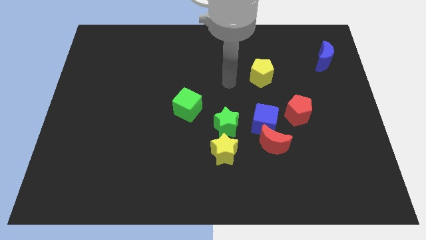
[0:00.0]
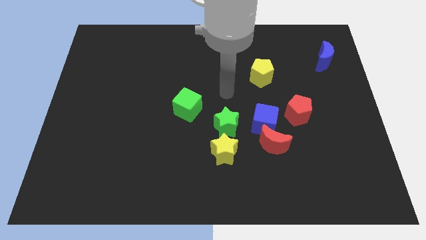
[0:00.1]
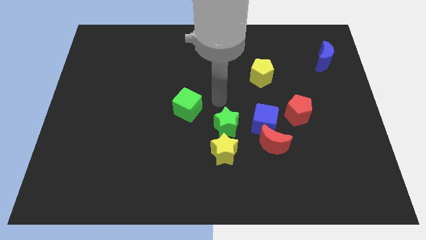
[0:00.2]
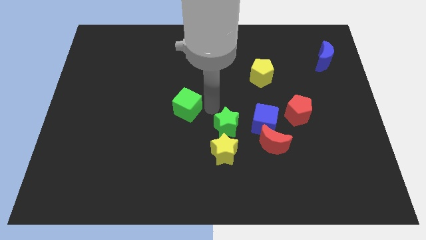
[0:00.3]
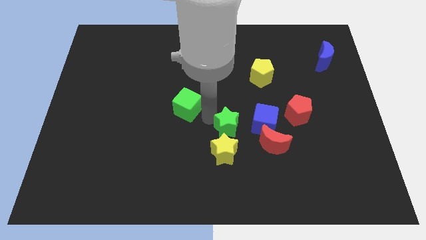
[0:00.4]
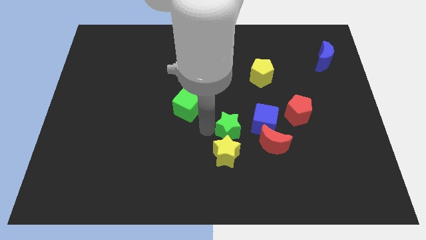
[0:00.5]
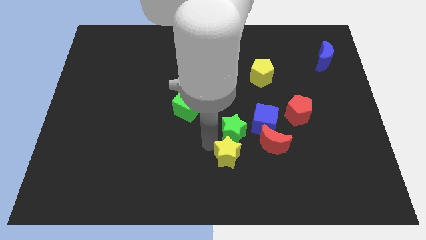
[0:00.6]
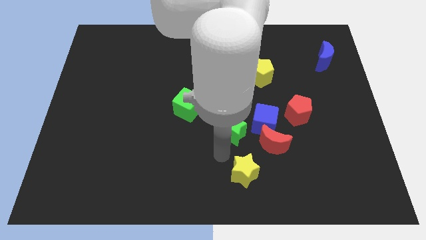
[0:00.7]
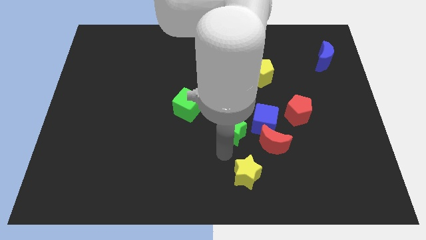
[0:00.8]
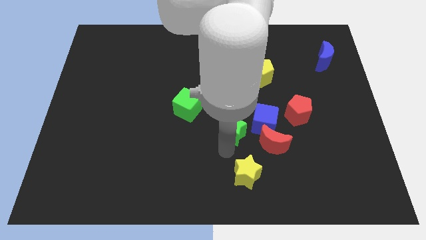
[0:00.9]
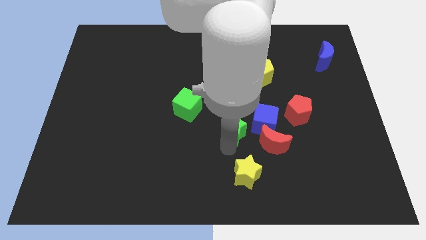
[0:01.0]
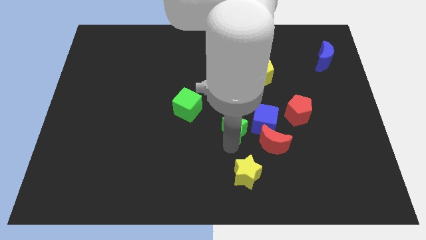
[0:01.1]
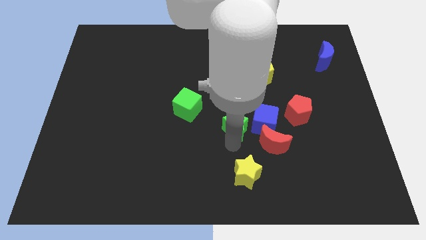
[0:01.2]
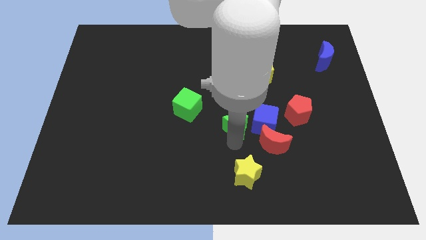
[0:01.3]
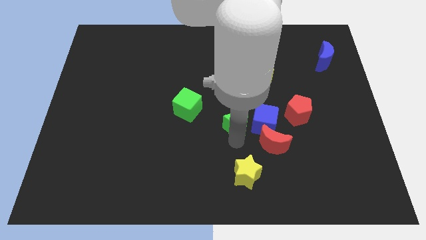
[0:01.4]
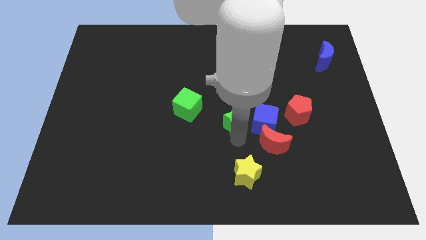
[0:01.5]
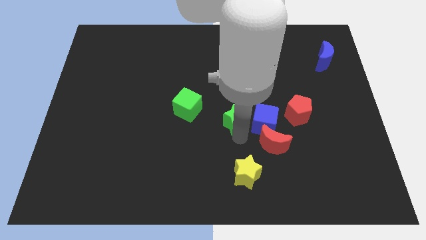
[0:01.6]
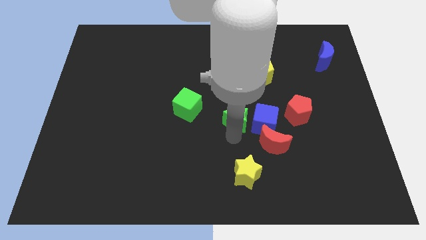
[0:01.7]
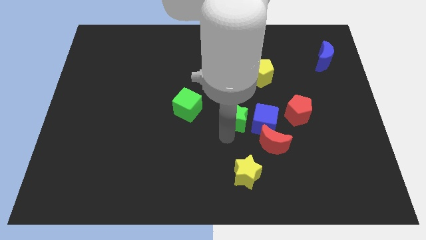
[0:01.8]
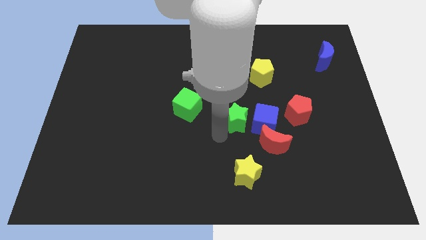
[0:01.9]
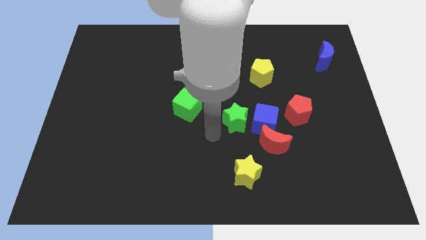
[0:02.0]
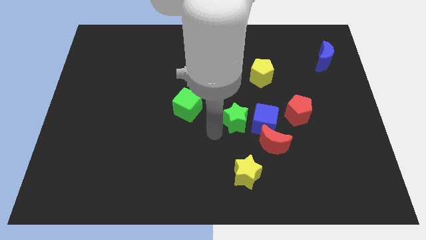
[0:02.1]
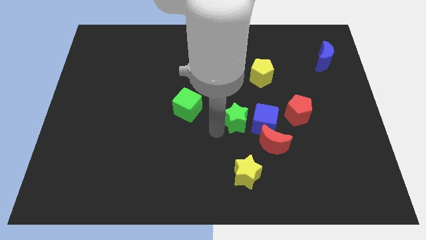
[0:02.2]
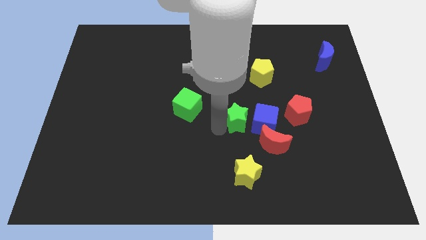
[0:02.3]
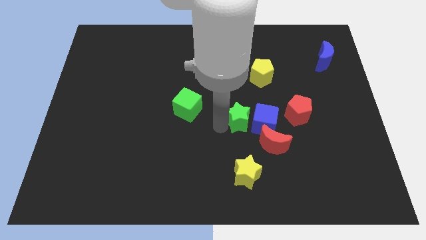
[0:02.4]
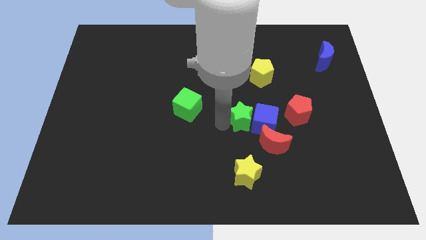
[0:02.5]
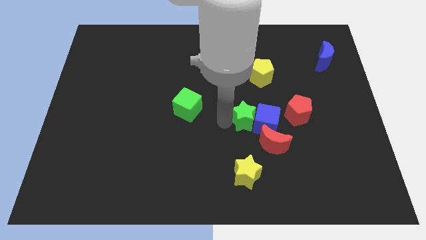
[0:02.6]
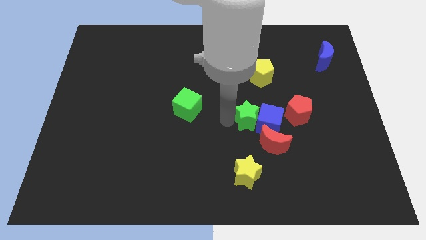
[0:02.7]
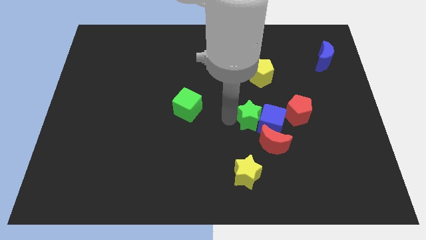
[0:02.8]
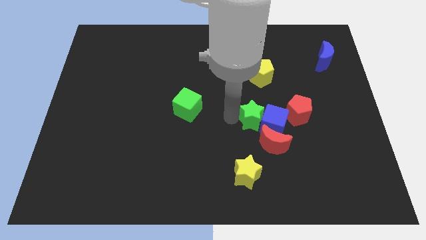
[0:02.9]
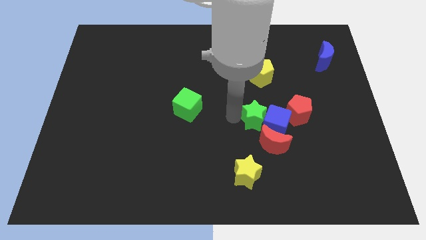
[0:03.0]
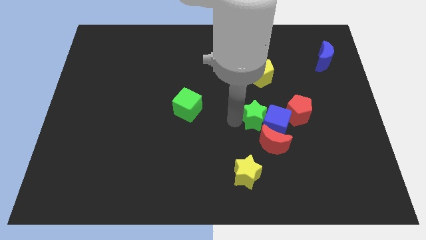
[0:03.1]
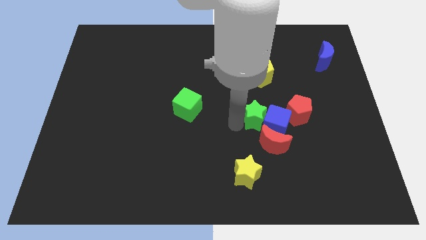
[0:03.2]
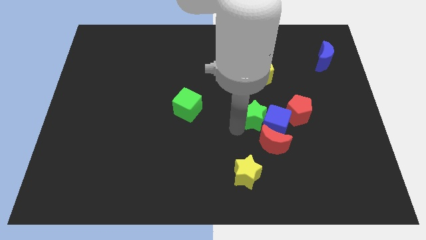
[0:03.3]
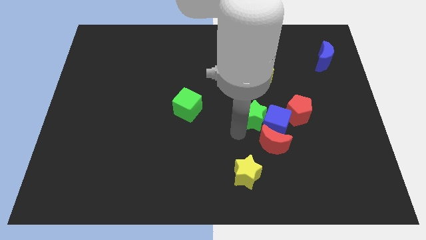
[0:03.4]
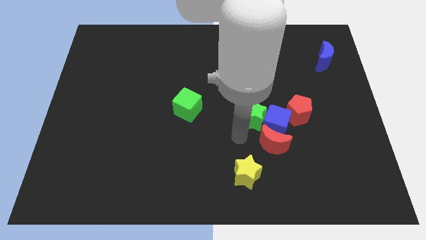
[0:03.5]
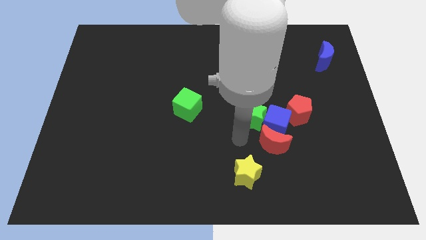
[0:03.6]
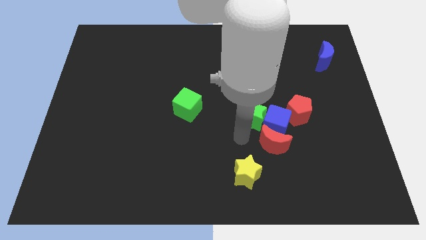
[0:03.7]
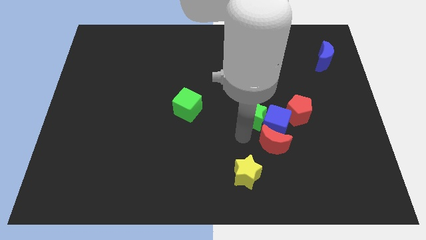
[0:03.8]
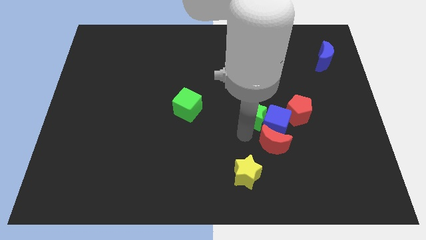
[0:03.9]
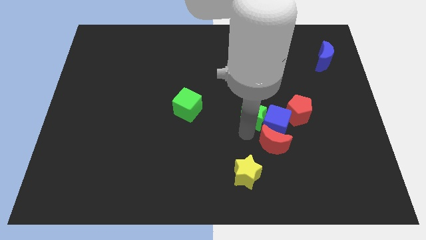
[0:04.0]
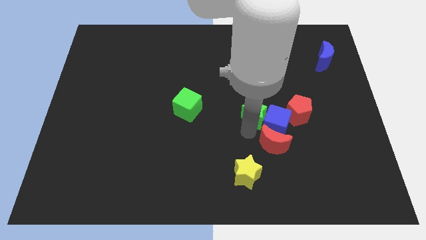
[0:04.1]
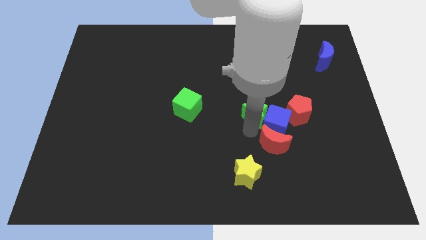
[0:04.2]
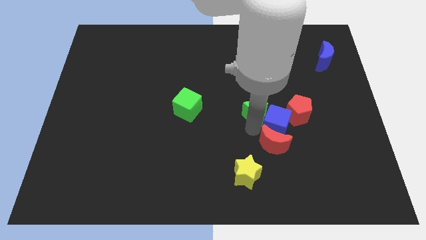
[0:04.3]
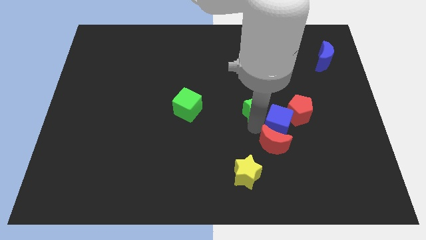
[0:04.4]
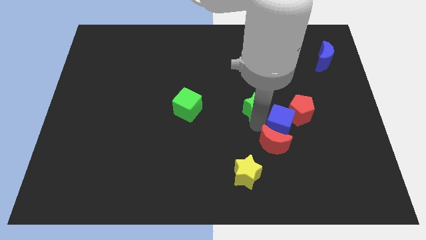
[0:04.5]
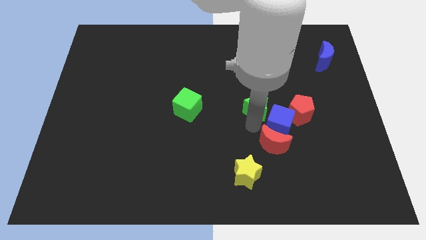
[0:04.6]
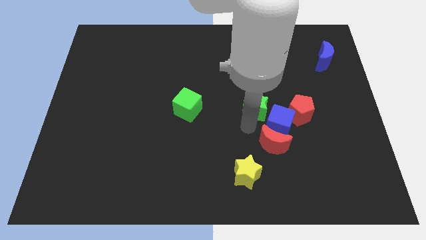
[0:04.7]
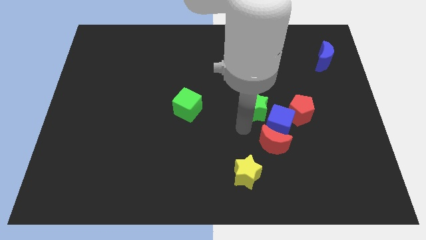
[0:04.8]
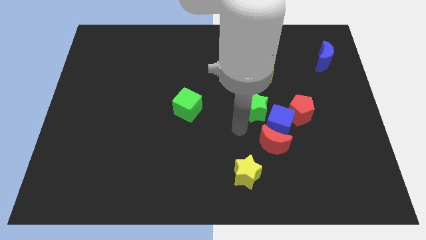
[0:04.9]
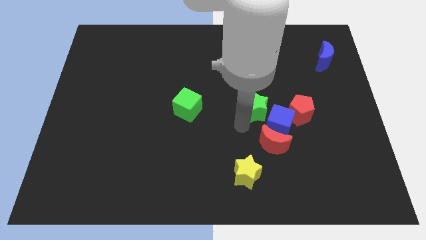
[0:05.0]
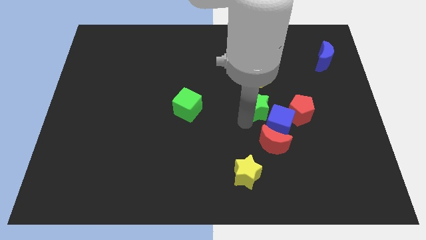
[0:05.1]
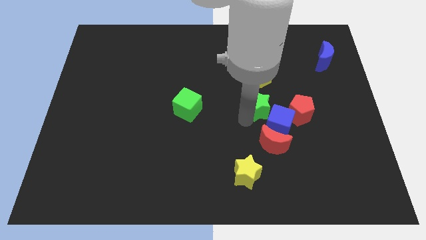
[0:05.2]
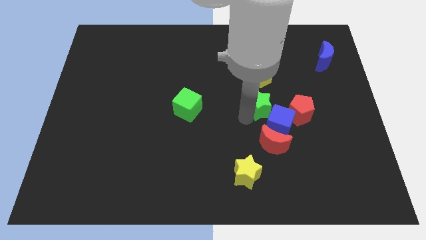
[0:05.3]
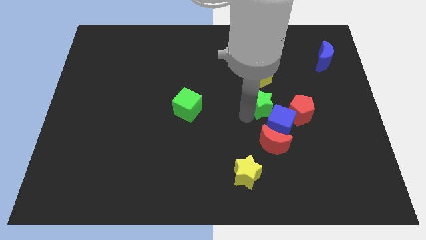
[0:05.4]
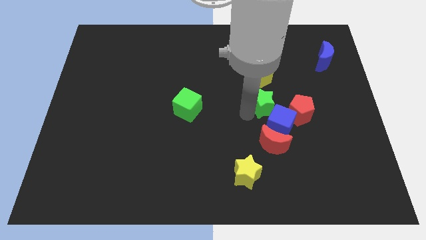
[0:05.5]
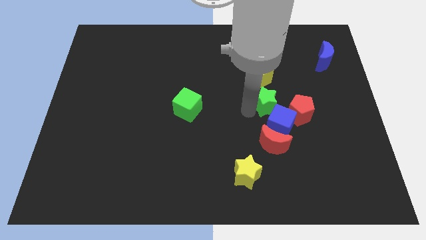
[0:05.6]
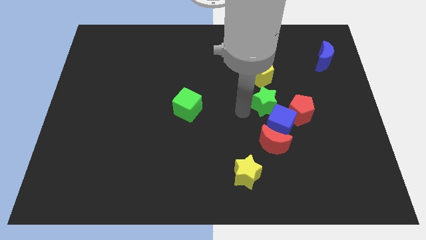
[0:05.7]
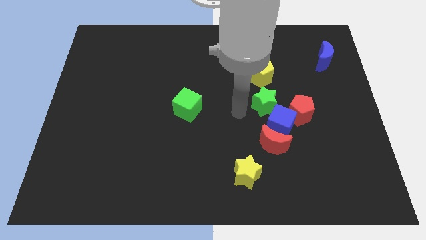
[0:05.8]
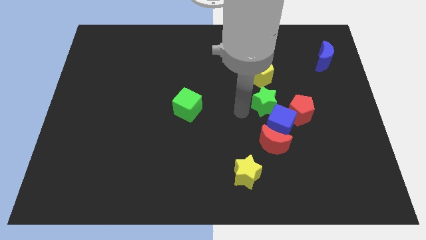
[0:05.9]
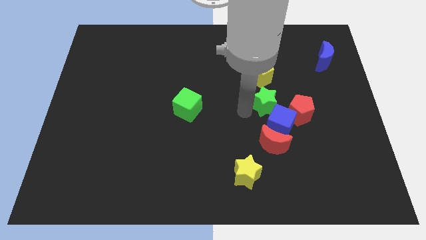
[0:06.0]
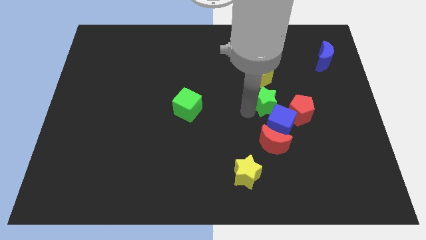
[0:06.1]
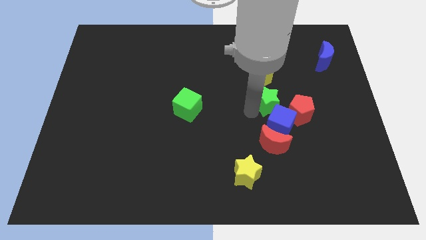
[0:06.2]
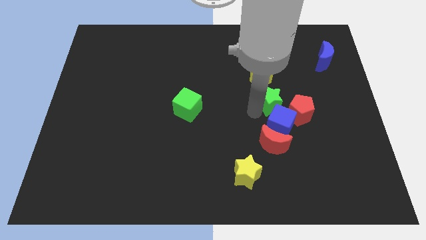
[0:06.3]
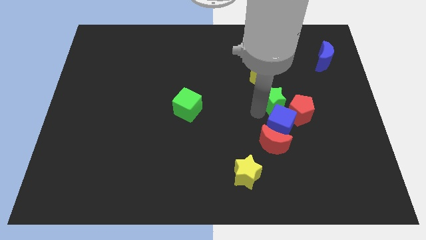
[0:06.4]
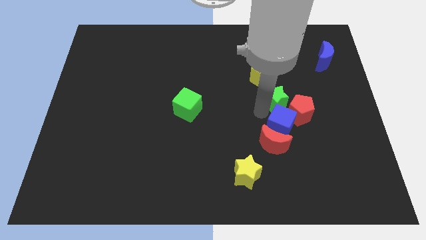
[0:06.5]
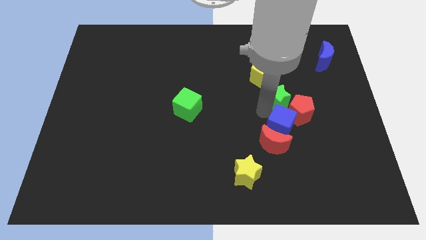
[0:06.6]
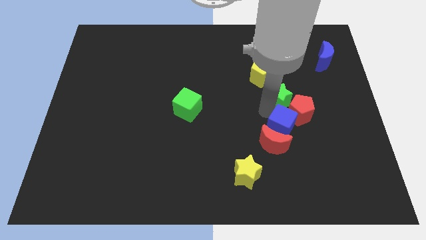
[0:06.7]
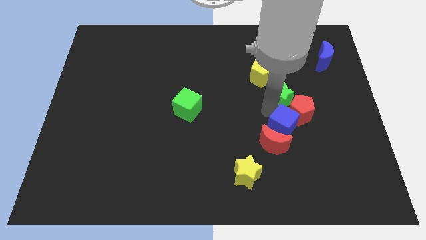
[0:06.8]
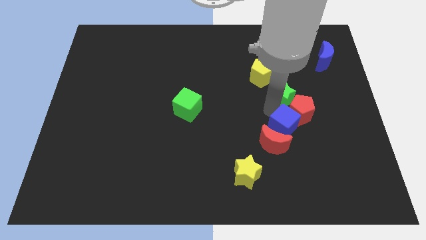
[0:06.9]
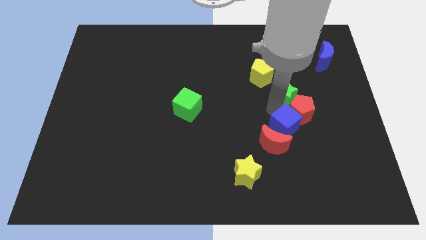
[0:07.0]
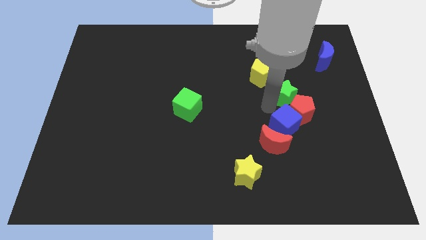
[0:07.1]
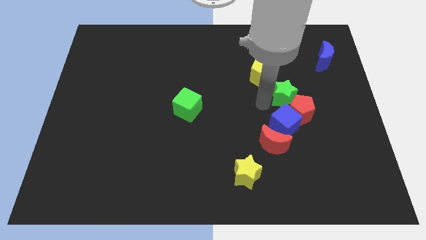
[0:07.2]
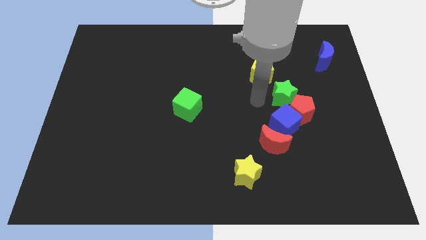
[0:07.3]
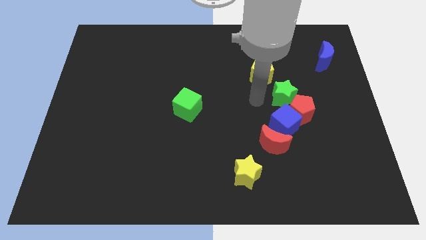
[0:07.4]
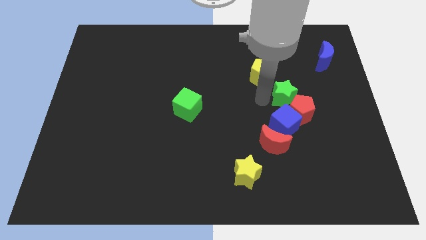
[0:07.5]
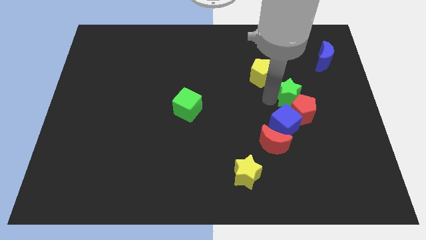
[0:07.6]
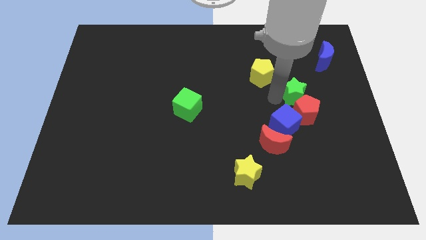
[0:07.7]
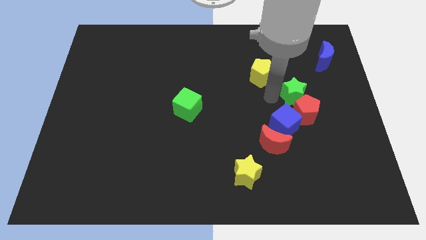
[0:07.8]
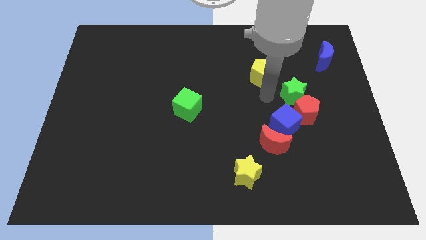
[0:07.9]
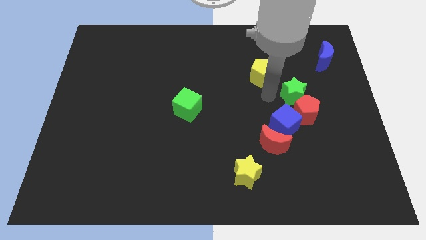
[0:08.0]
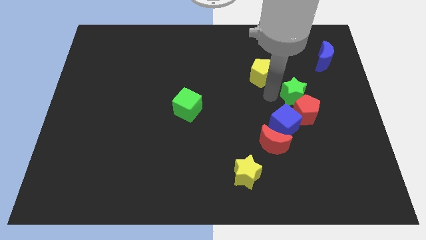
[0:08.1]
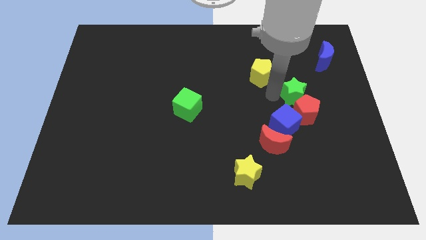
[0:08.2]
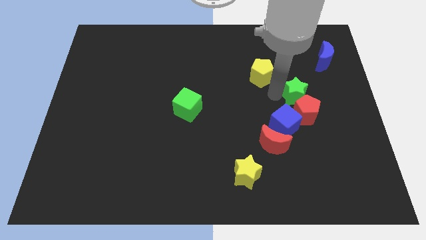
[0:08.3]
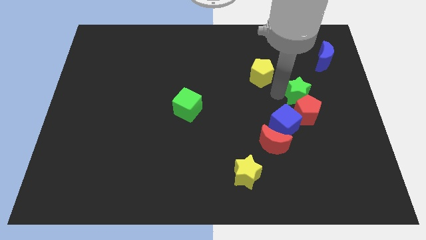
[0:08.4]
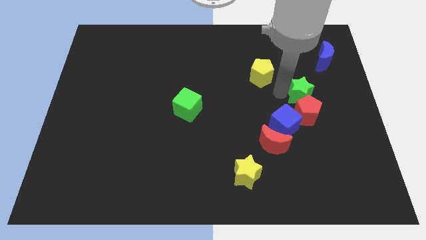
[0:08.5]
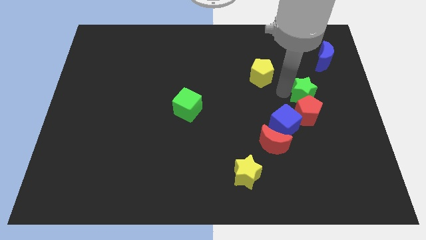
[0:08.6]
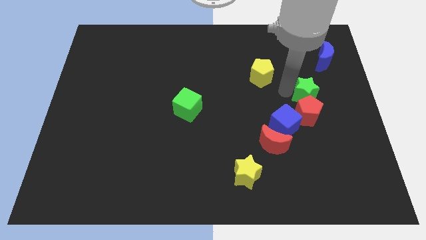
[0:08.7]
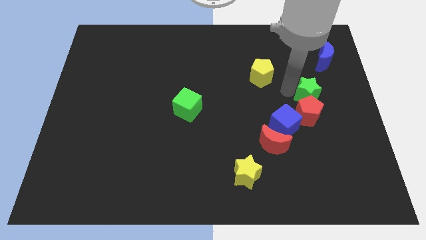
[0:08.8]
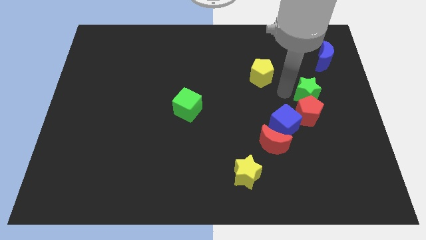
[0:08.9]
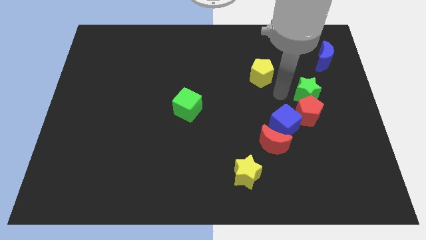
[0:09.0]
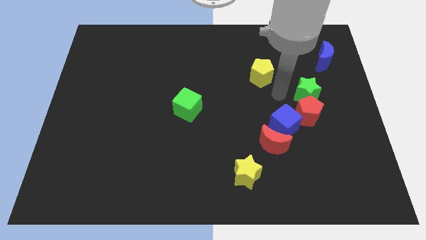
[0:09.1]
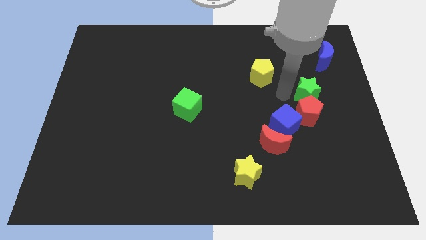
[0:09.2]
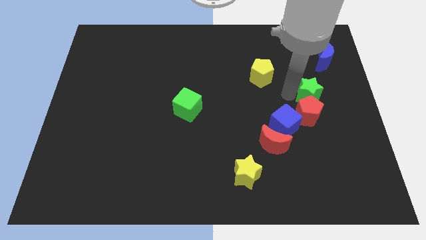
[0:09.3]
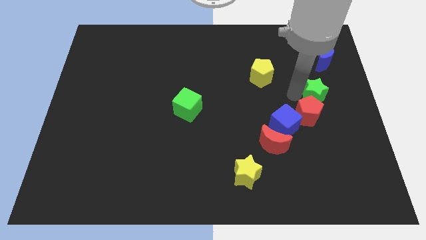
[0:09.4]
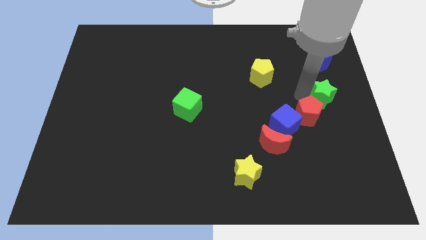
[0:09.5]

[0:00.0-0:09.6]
move the green star to the right side of the board
